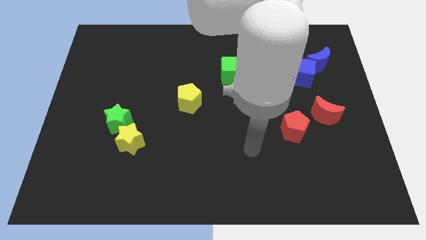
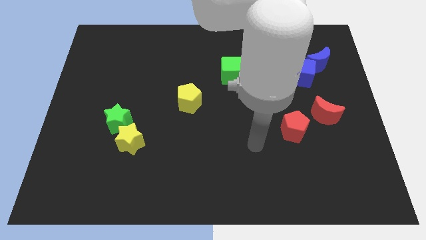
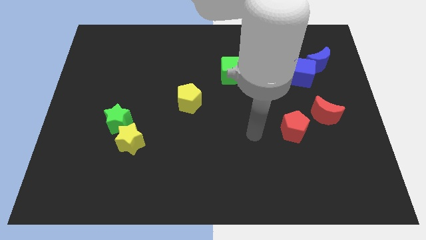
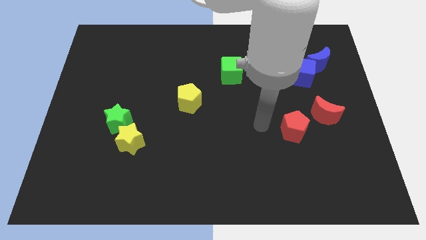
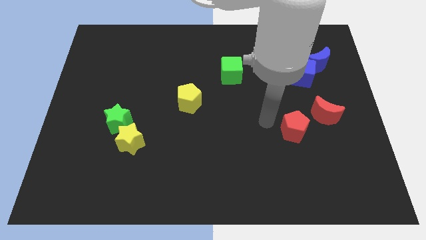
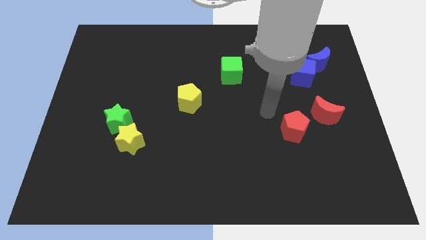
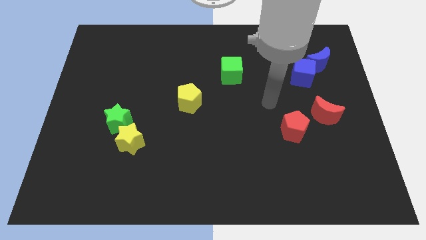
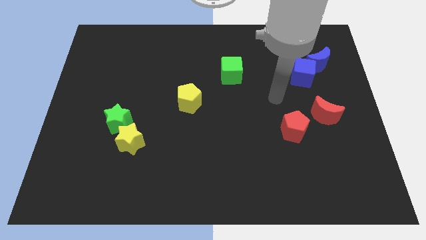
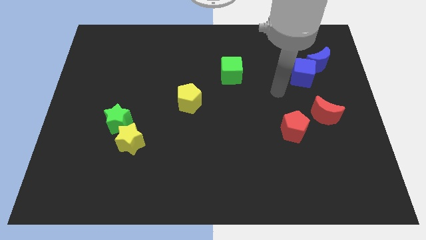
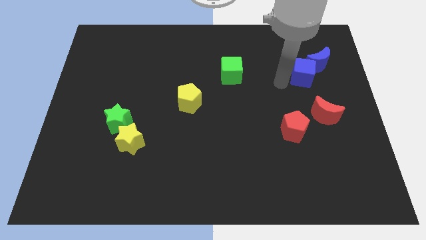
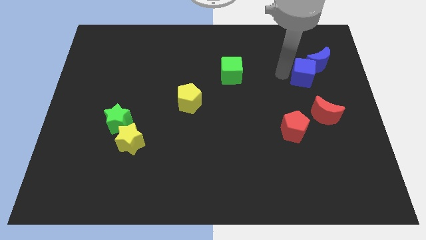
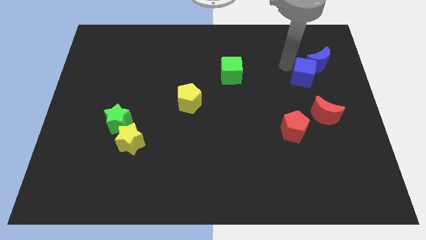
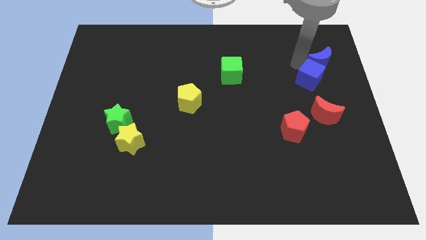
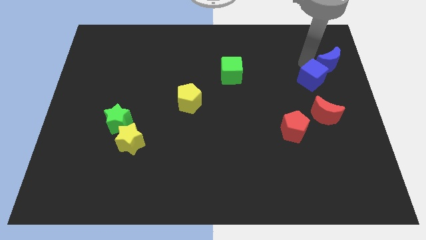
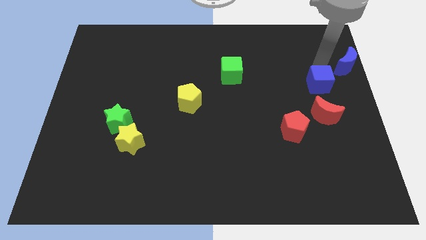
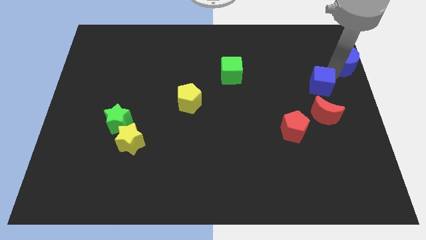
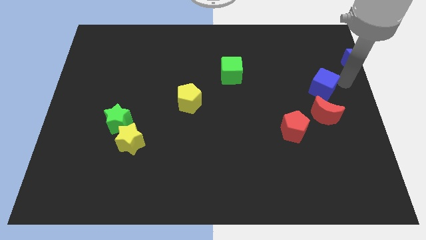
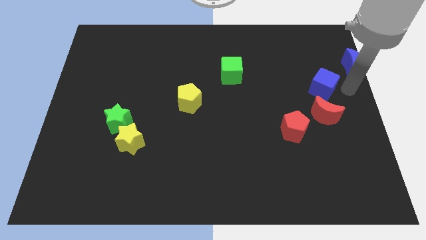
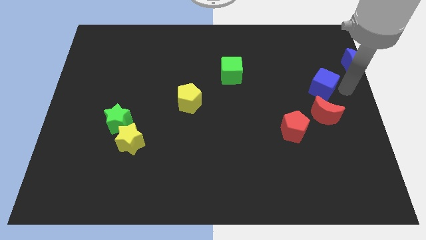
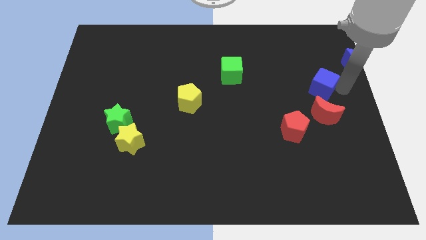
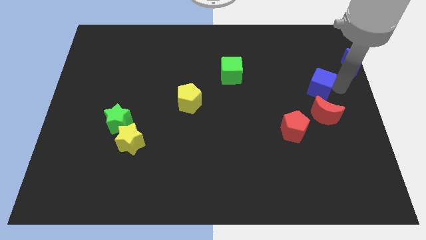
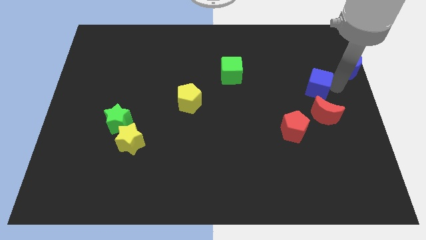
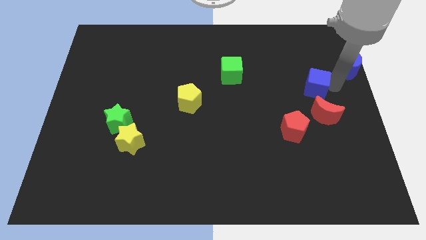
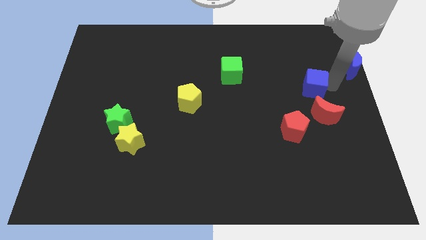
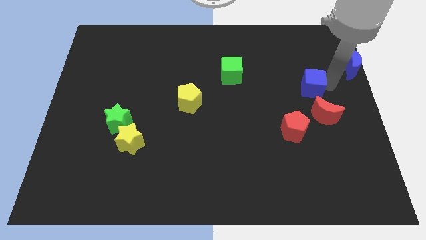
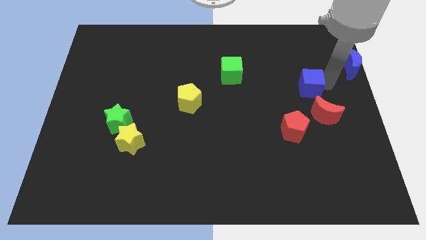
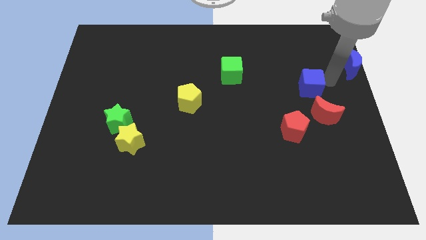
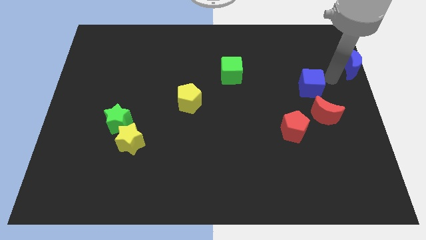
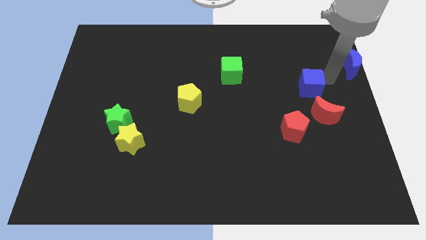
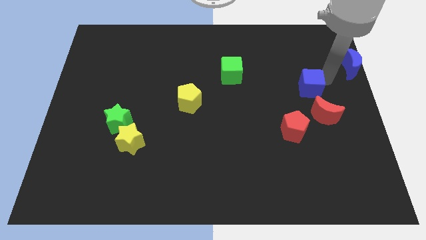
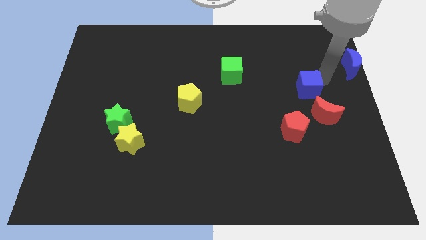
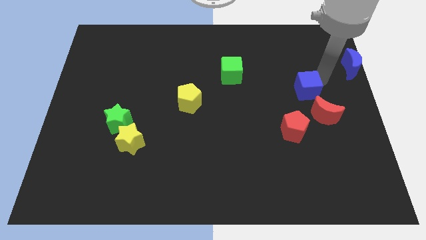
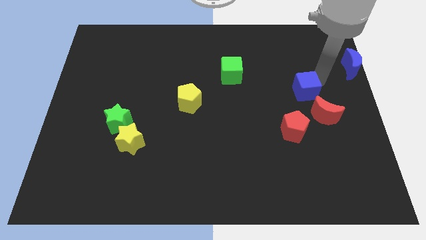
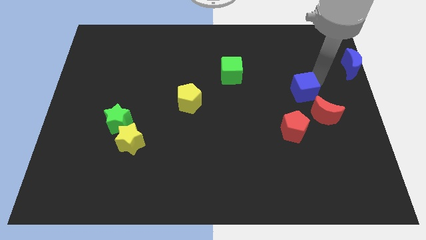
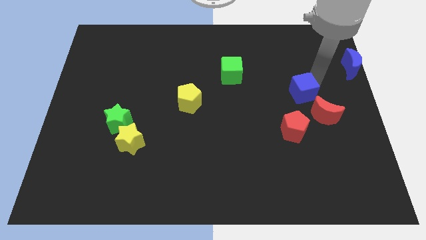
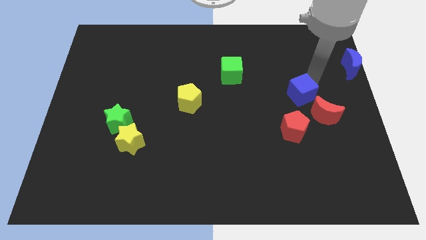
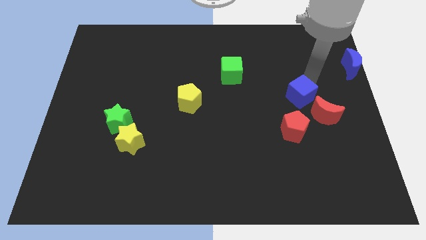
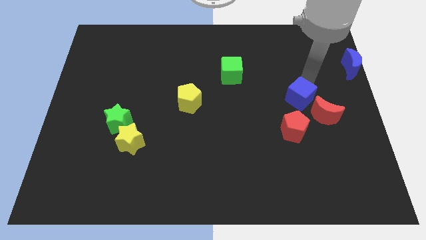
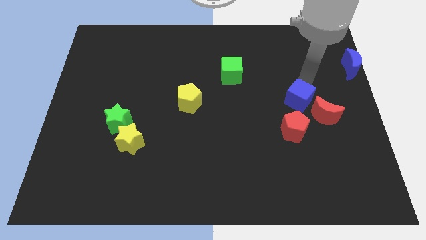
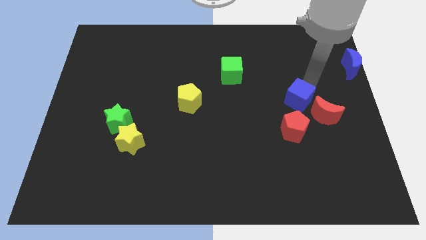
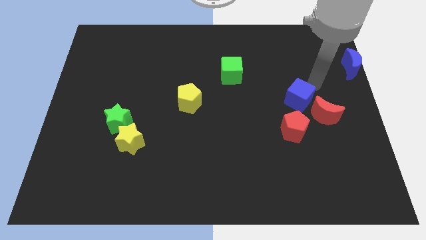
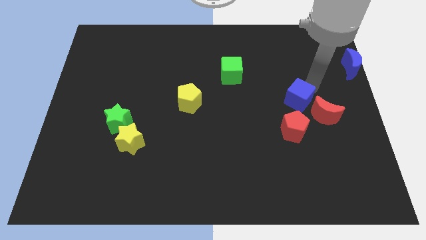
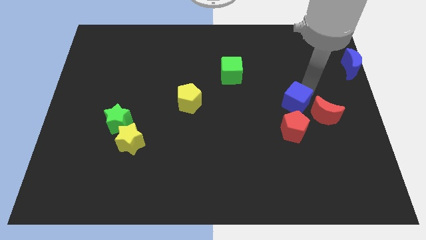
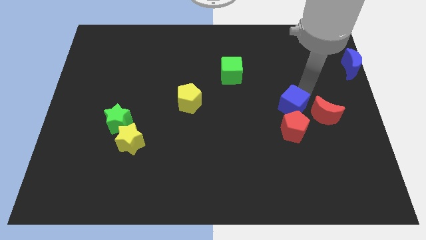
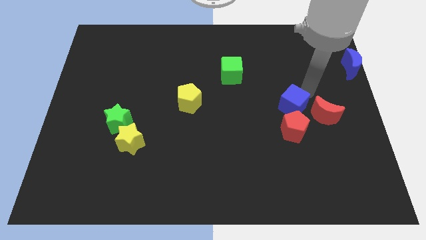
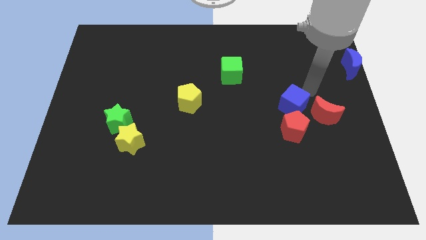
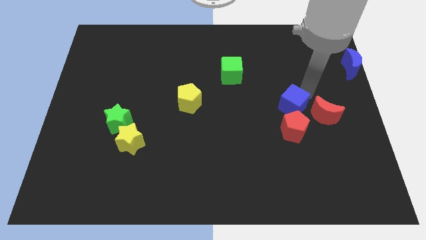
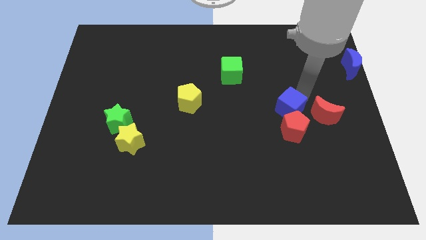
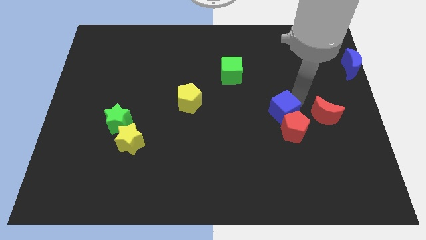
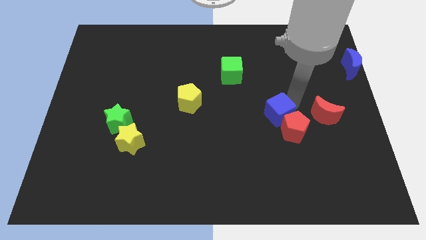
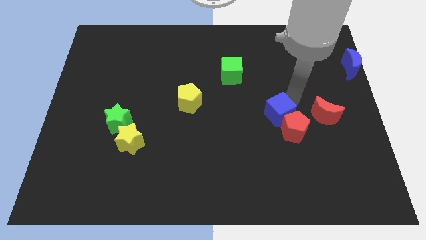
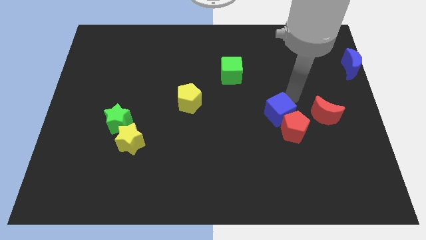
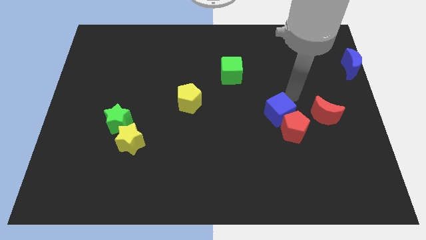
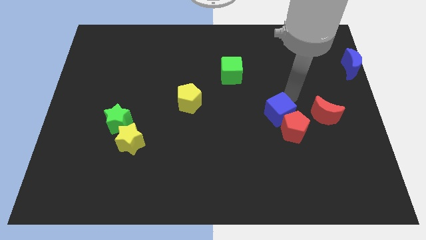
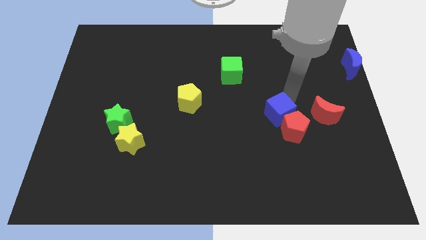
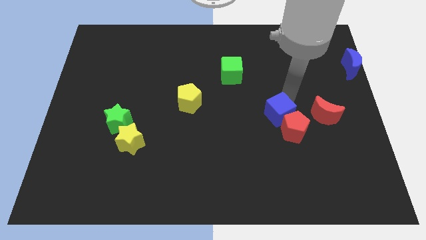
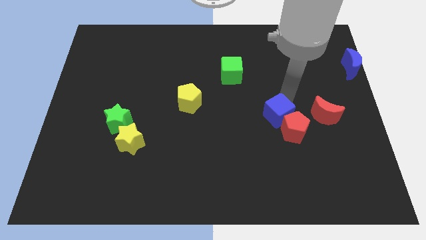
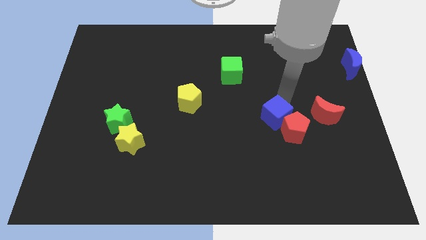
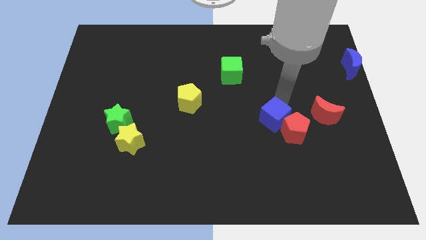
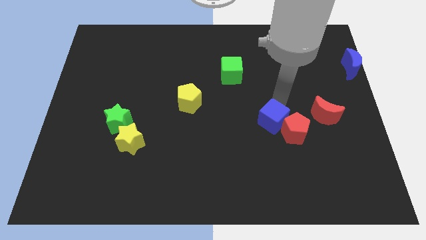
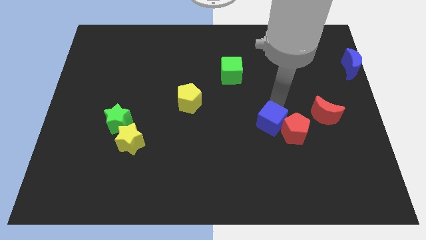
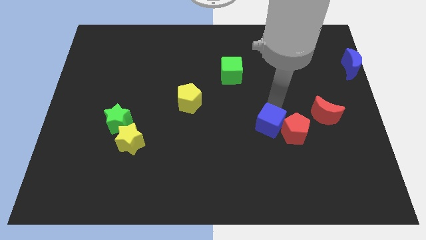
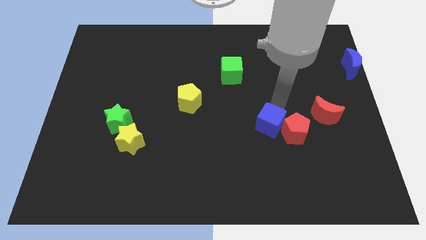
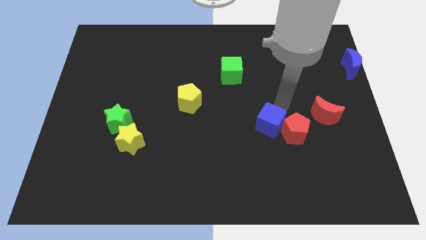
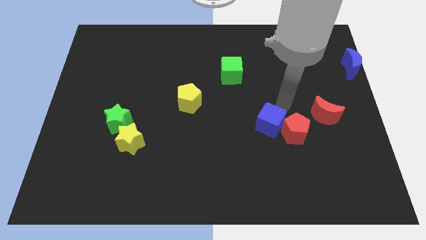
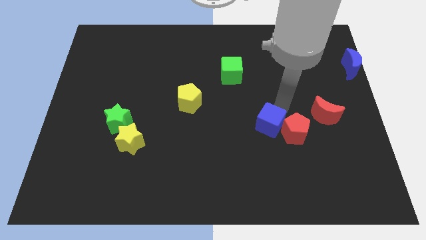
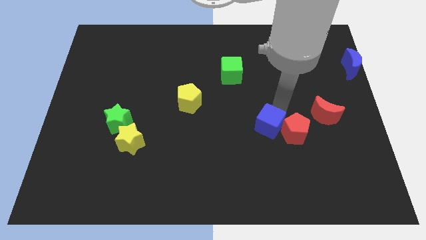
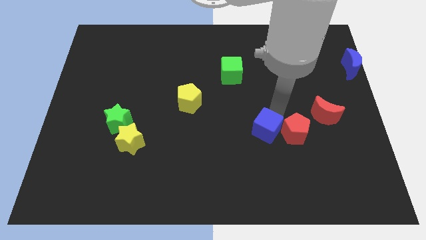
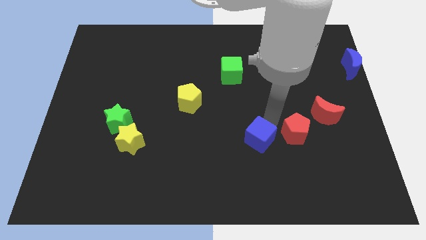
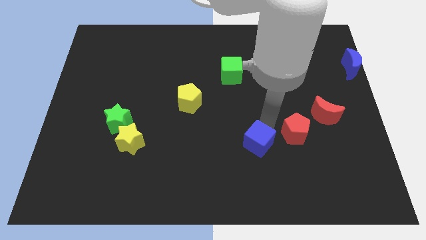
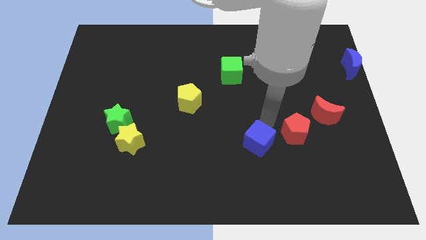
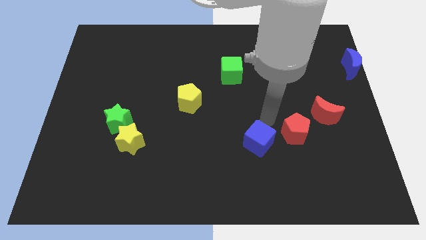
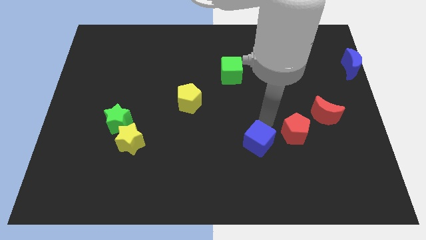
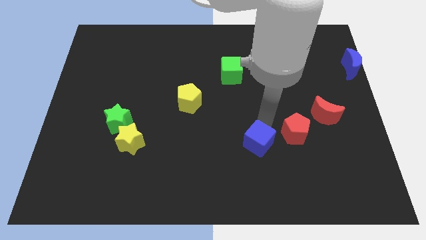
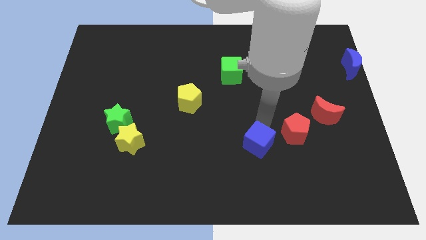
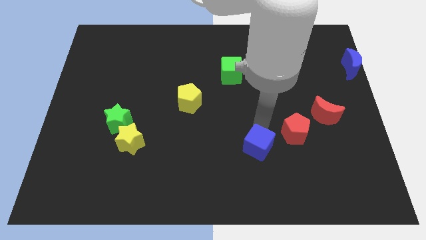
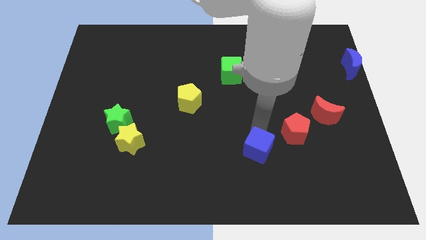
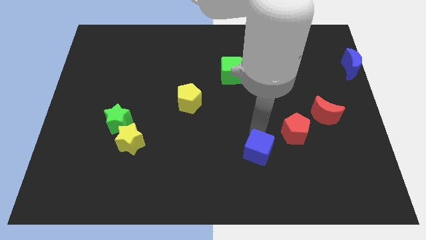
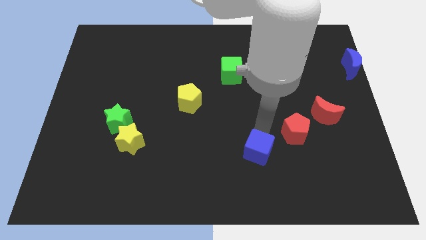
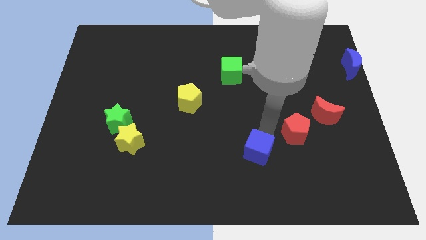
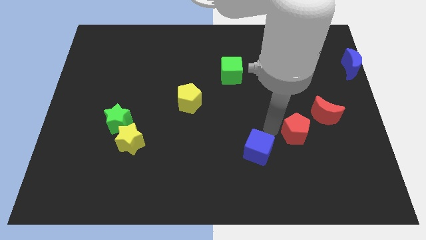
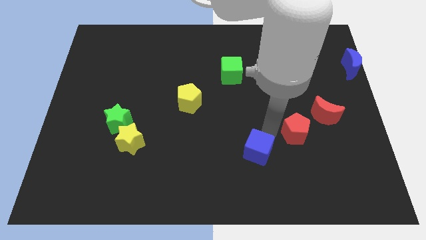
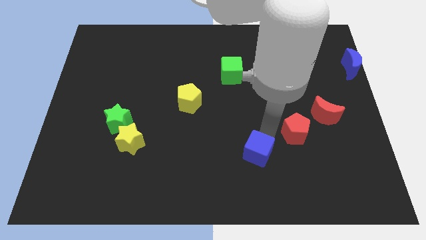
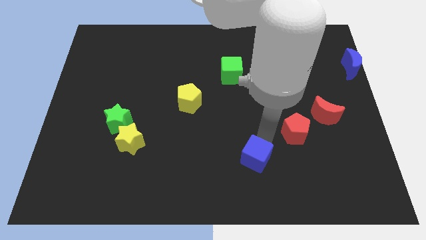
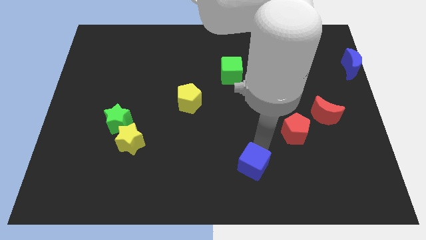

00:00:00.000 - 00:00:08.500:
put the blue cube to the bottom side
